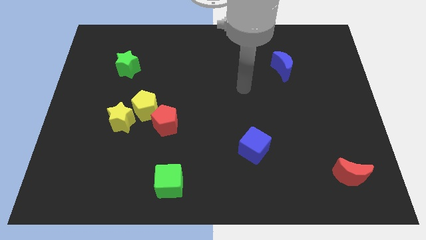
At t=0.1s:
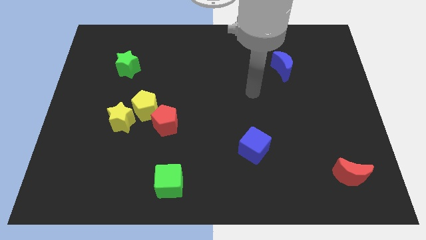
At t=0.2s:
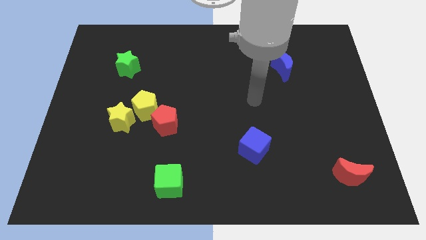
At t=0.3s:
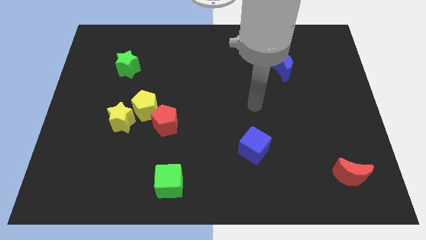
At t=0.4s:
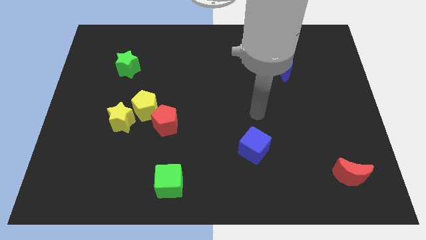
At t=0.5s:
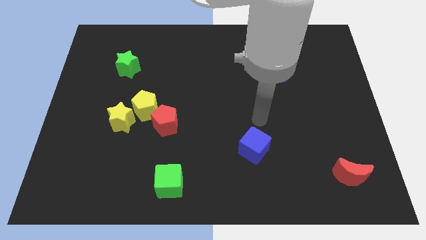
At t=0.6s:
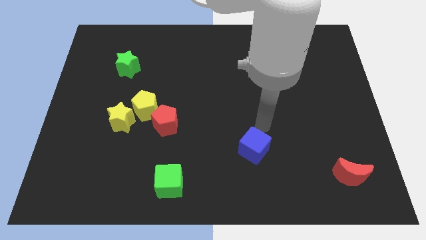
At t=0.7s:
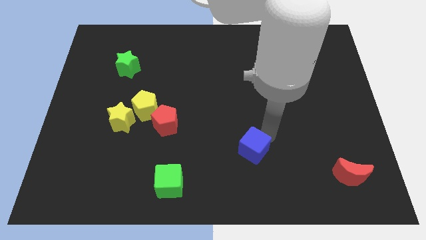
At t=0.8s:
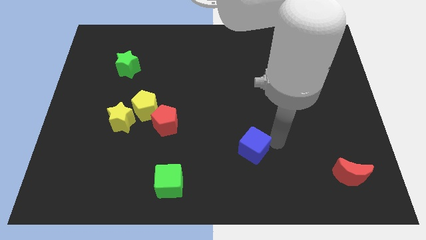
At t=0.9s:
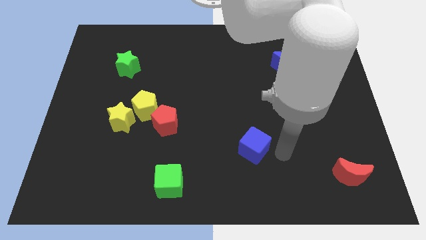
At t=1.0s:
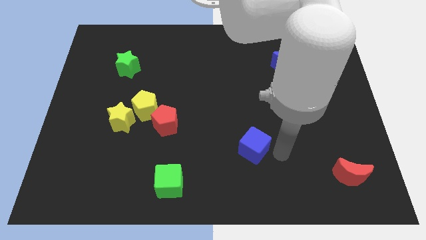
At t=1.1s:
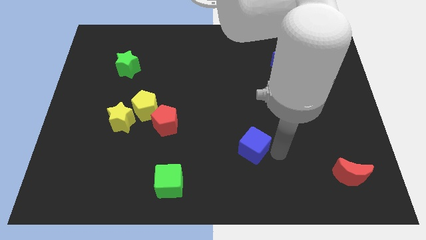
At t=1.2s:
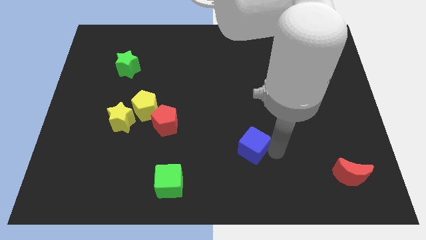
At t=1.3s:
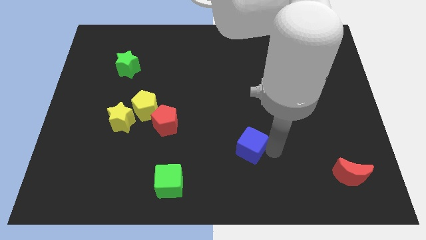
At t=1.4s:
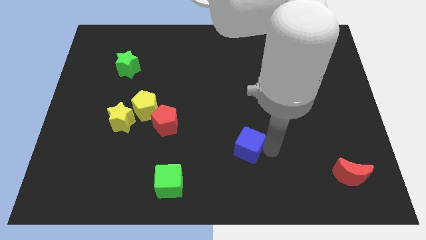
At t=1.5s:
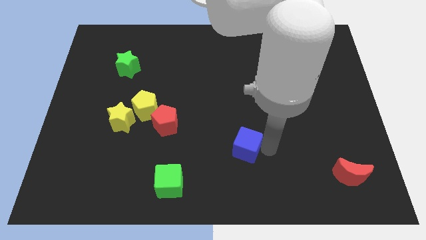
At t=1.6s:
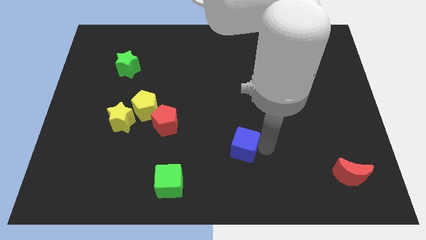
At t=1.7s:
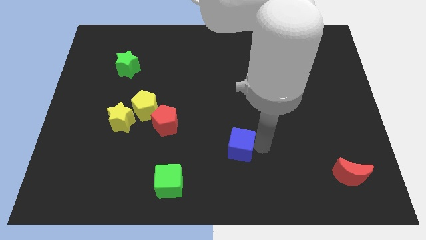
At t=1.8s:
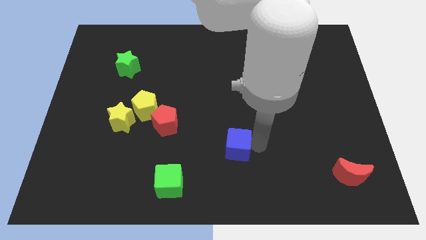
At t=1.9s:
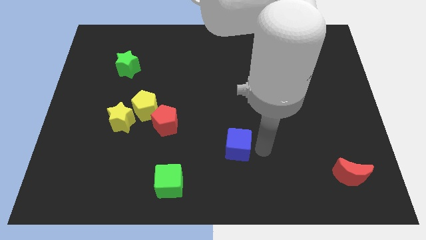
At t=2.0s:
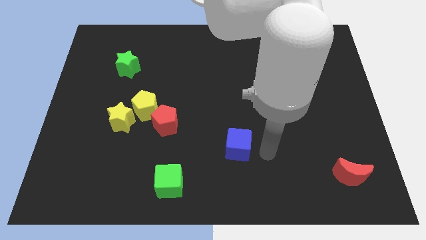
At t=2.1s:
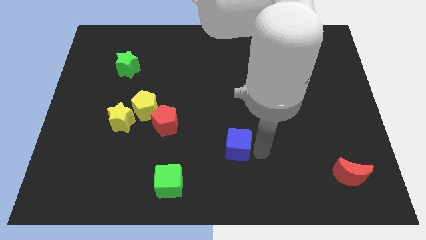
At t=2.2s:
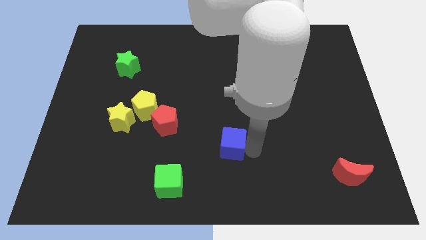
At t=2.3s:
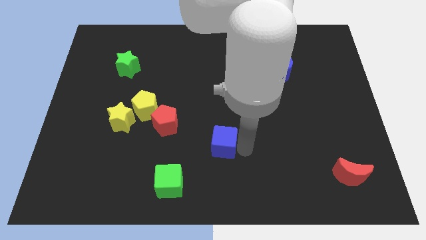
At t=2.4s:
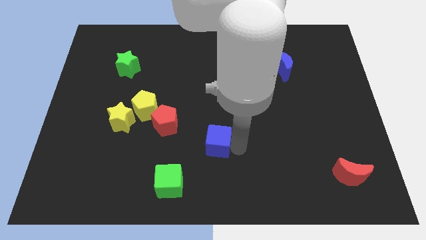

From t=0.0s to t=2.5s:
slide the blue cube a little to the left

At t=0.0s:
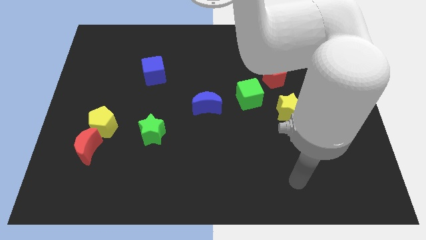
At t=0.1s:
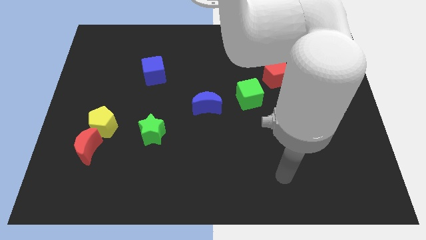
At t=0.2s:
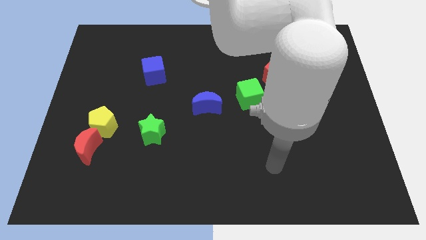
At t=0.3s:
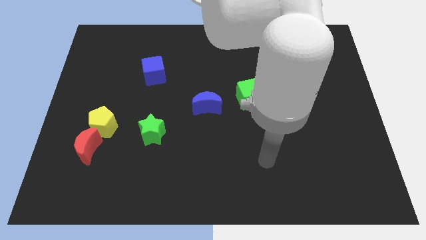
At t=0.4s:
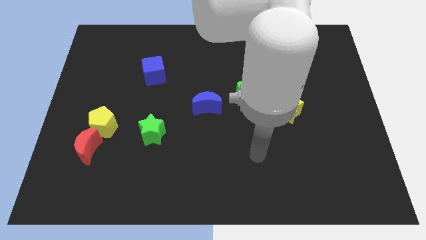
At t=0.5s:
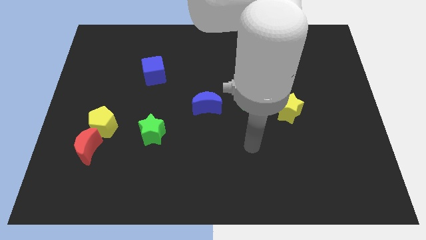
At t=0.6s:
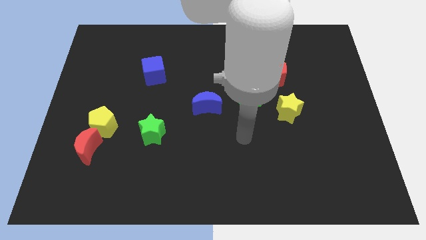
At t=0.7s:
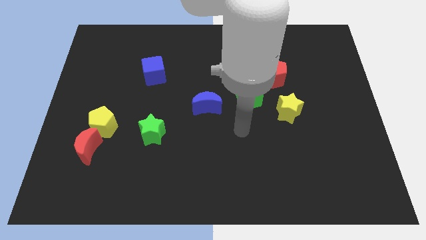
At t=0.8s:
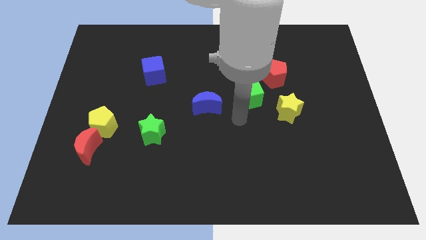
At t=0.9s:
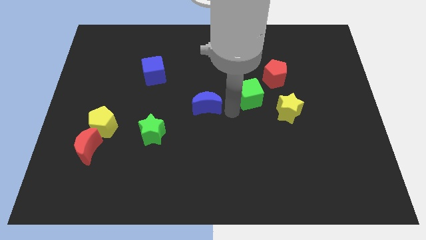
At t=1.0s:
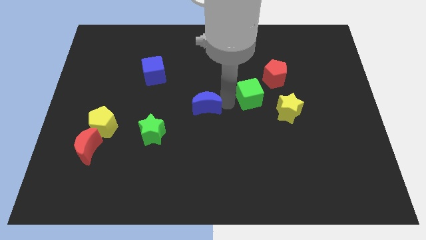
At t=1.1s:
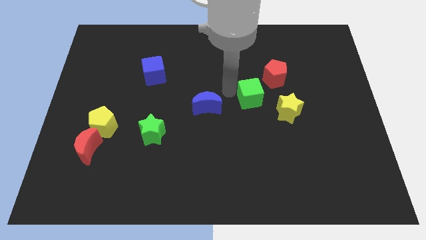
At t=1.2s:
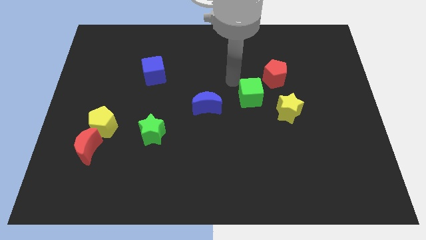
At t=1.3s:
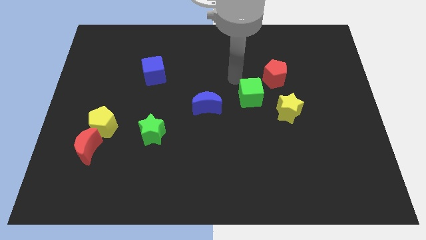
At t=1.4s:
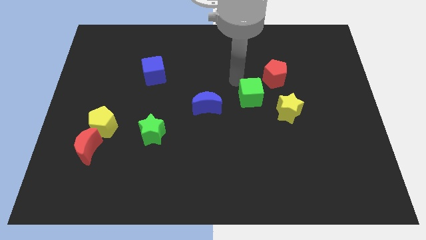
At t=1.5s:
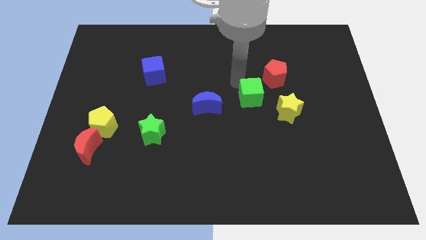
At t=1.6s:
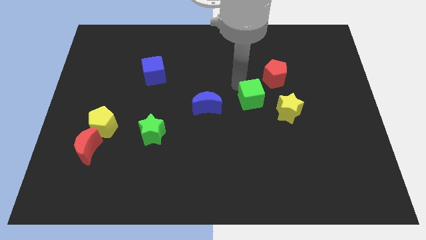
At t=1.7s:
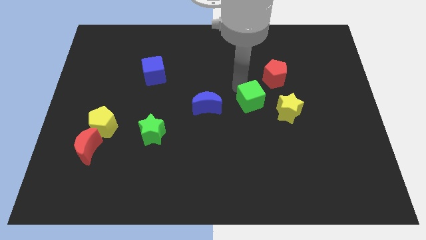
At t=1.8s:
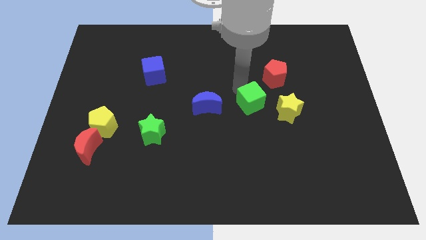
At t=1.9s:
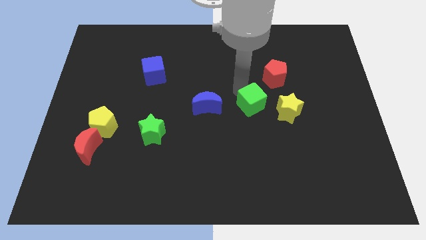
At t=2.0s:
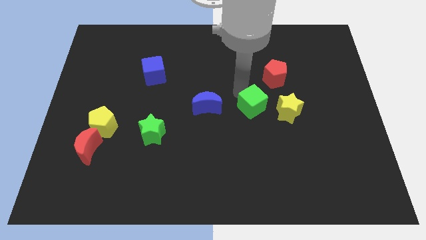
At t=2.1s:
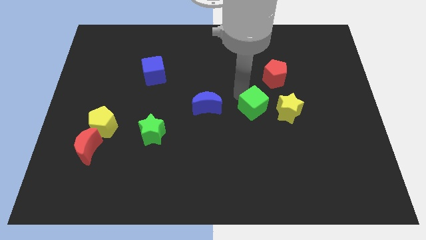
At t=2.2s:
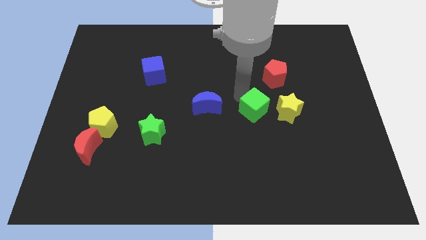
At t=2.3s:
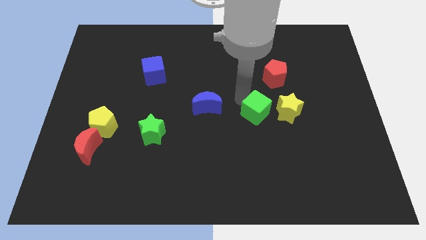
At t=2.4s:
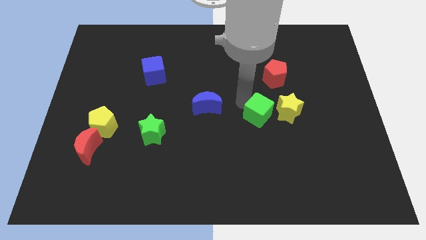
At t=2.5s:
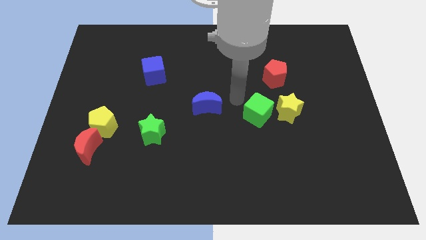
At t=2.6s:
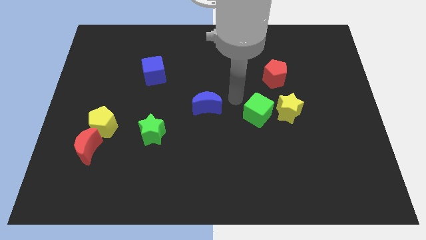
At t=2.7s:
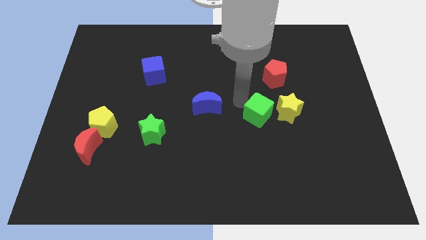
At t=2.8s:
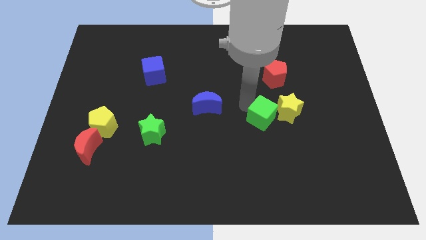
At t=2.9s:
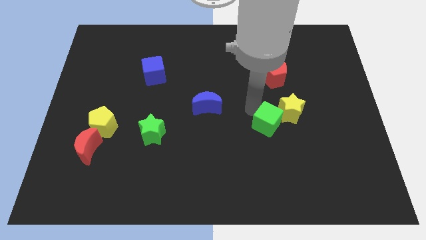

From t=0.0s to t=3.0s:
move the green cube down and to the right a little bit

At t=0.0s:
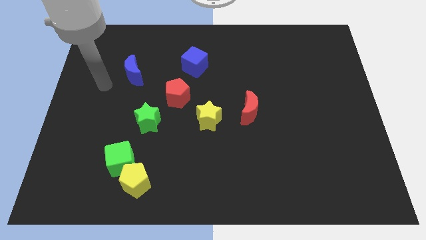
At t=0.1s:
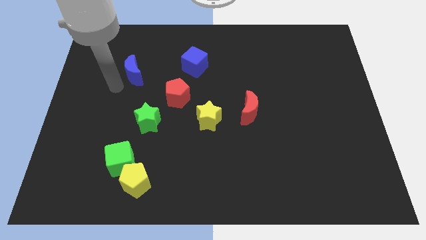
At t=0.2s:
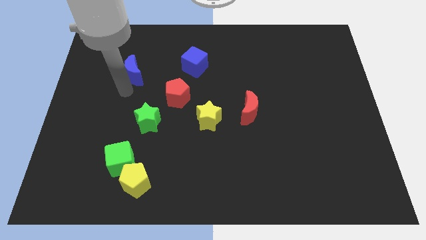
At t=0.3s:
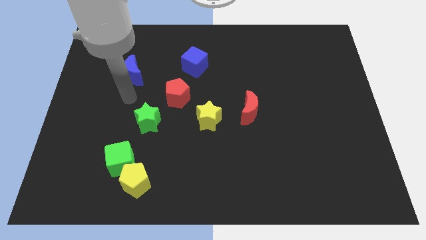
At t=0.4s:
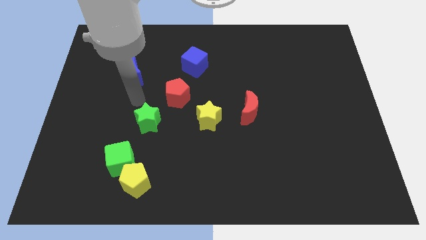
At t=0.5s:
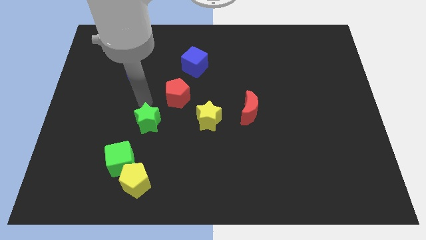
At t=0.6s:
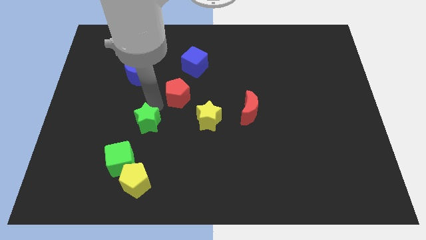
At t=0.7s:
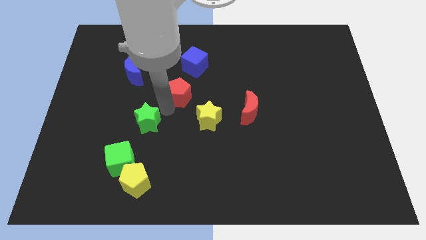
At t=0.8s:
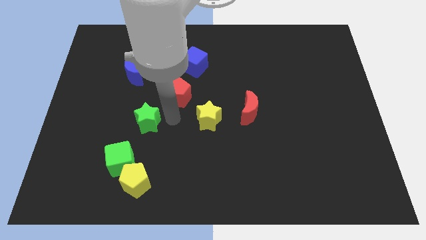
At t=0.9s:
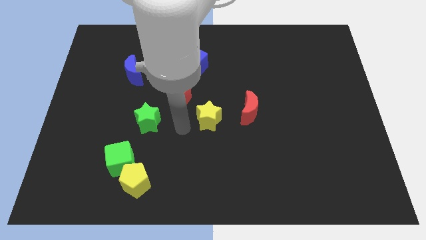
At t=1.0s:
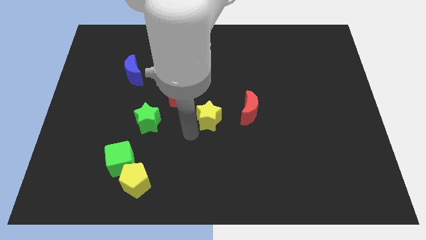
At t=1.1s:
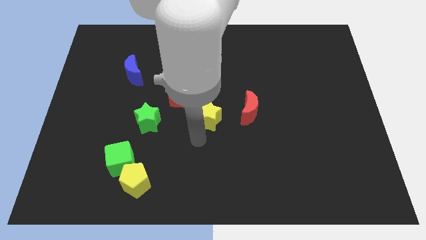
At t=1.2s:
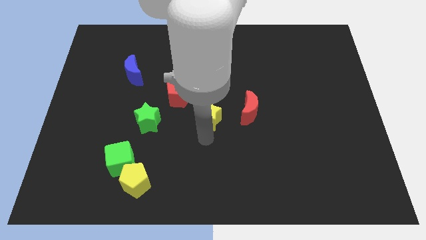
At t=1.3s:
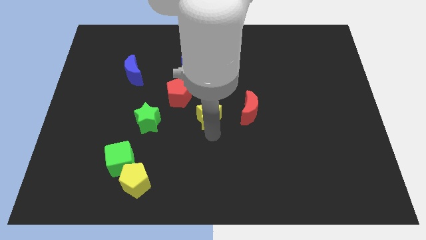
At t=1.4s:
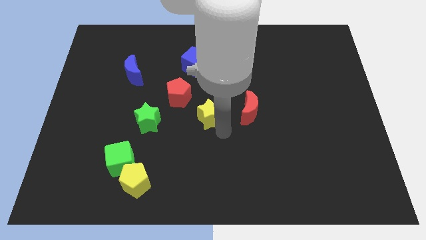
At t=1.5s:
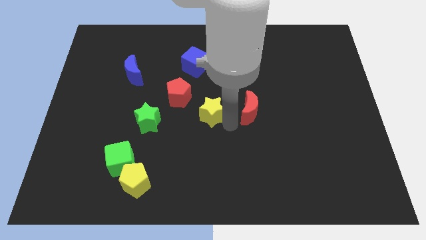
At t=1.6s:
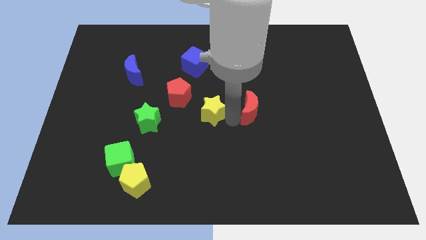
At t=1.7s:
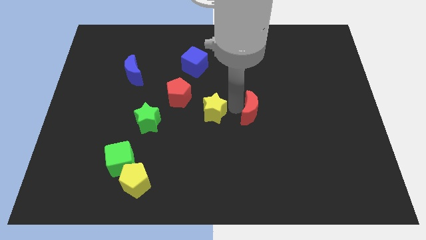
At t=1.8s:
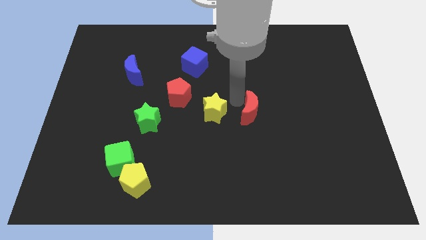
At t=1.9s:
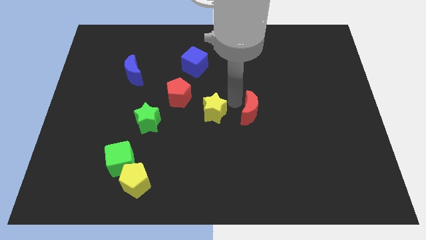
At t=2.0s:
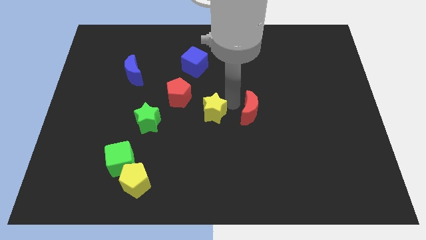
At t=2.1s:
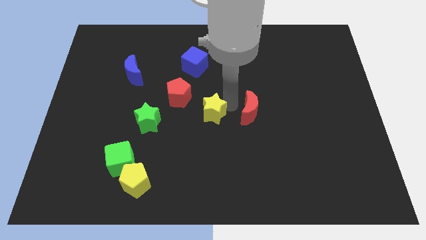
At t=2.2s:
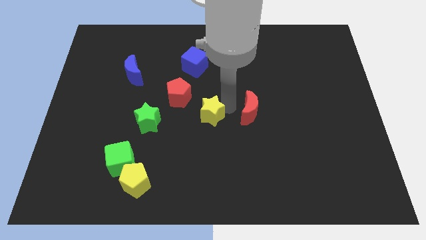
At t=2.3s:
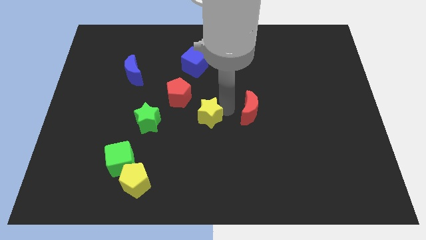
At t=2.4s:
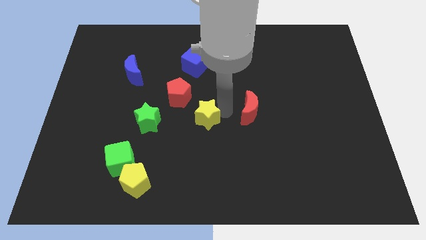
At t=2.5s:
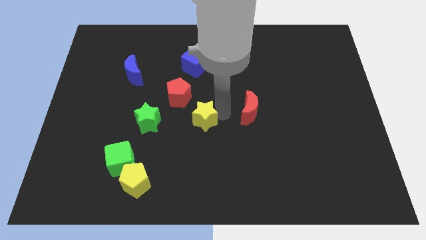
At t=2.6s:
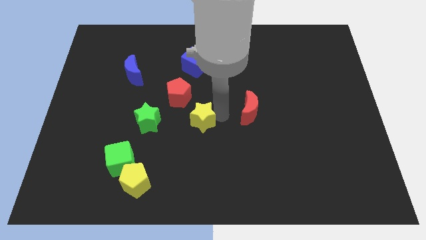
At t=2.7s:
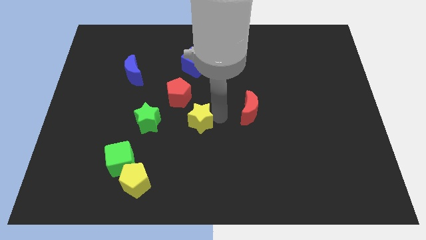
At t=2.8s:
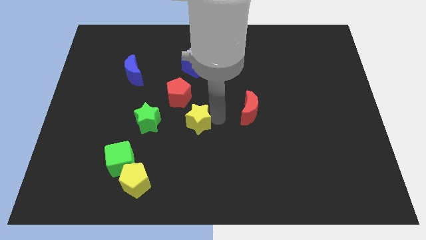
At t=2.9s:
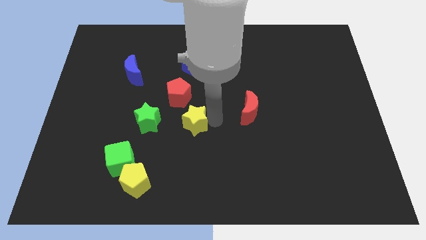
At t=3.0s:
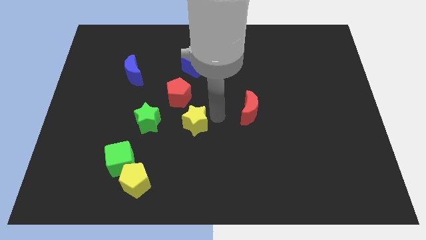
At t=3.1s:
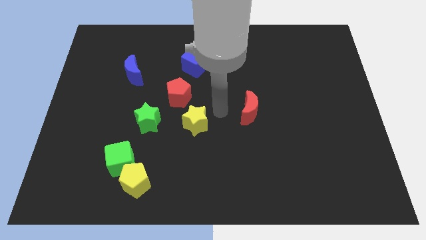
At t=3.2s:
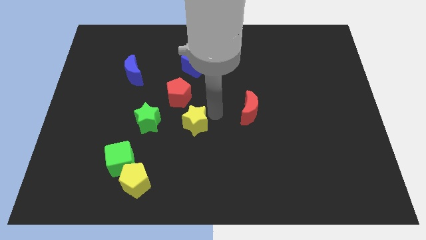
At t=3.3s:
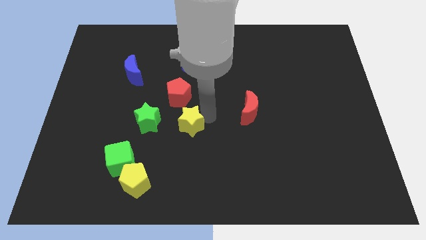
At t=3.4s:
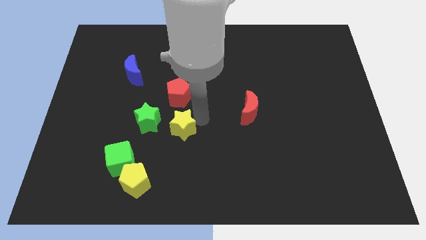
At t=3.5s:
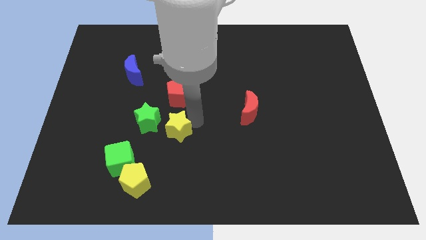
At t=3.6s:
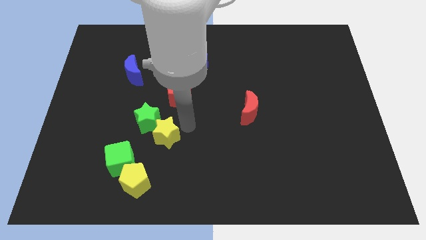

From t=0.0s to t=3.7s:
slightly slide the yellow star to the left
